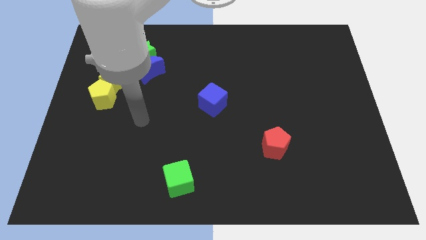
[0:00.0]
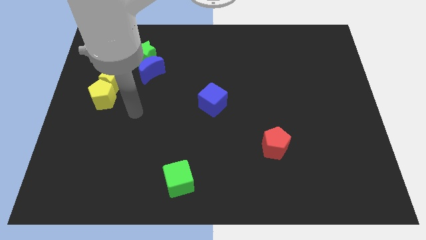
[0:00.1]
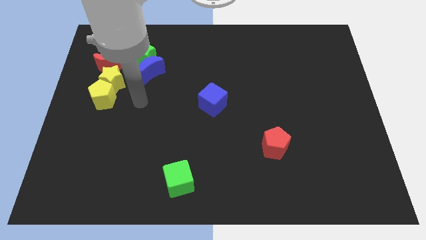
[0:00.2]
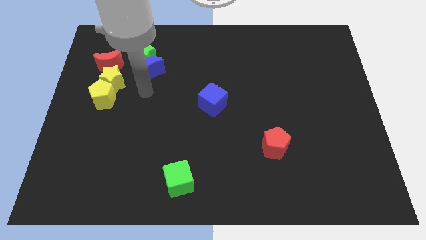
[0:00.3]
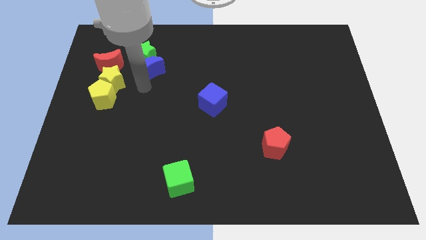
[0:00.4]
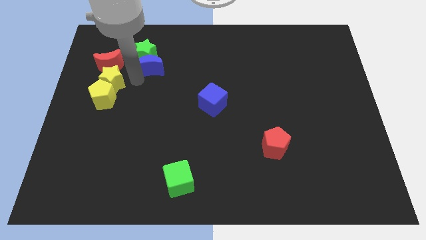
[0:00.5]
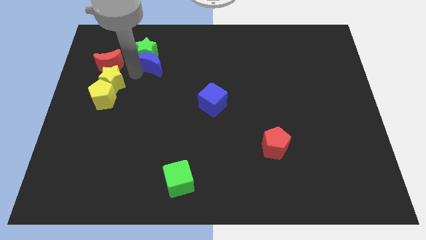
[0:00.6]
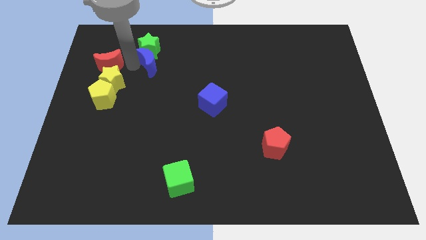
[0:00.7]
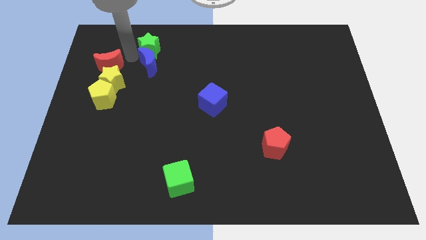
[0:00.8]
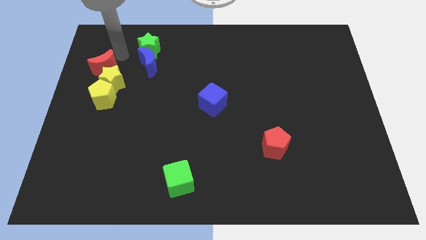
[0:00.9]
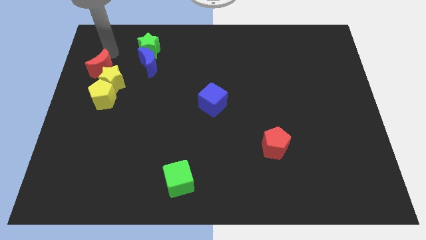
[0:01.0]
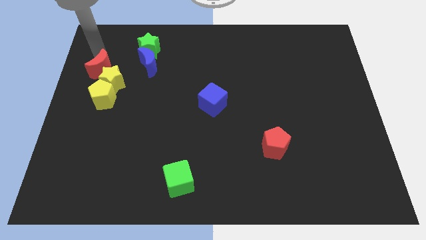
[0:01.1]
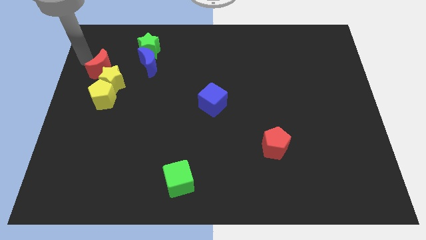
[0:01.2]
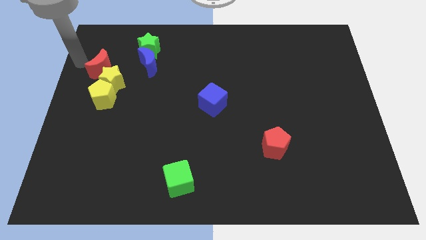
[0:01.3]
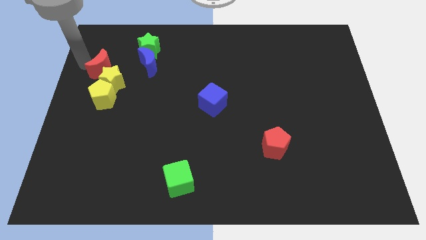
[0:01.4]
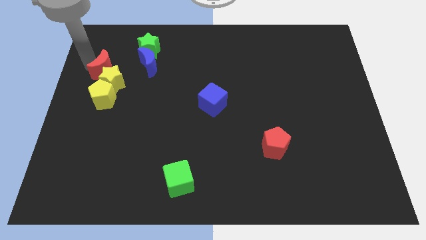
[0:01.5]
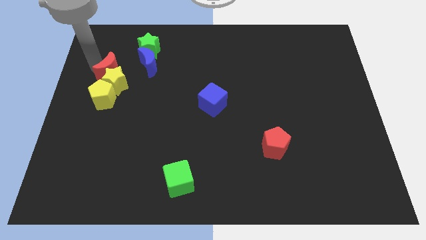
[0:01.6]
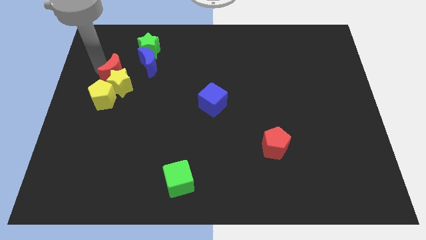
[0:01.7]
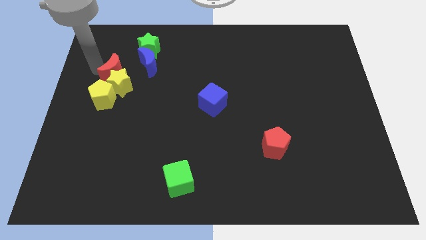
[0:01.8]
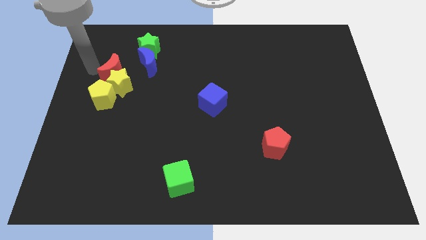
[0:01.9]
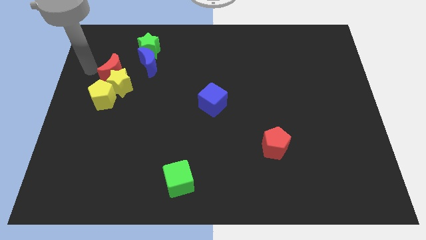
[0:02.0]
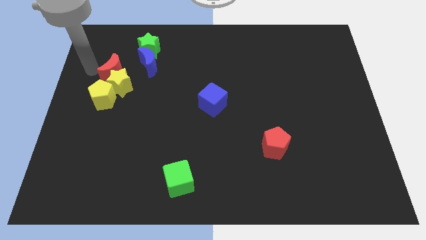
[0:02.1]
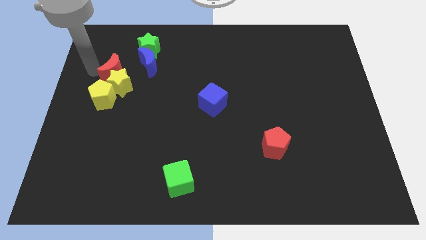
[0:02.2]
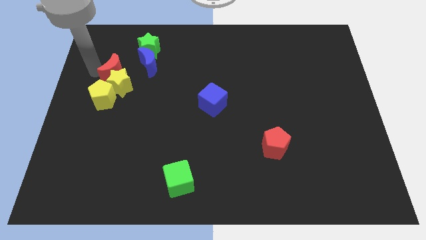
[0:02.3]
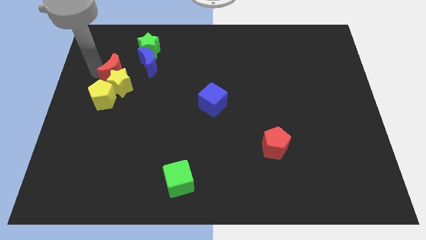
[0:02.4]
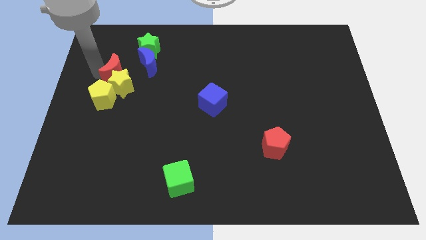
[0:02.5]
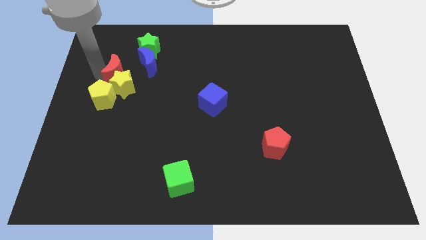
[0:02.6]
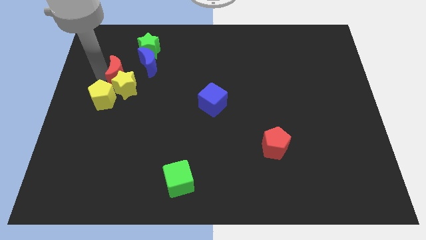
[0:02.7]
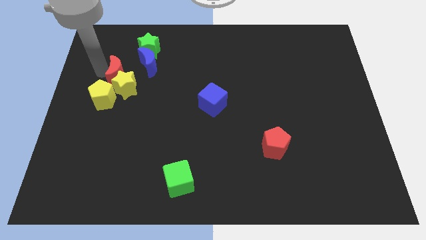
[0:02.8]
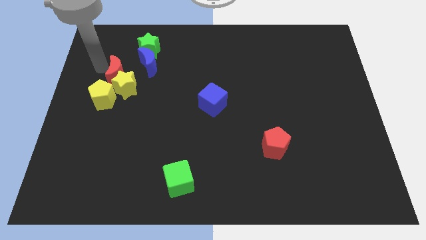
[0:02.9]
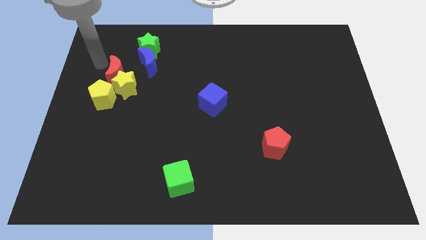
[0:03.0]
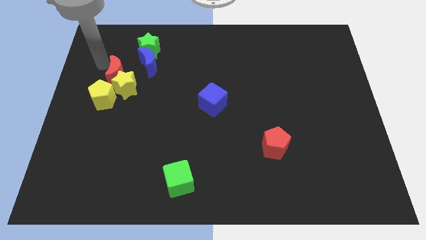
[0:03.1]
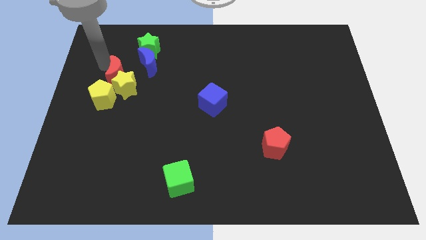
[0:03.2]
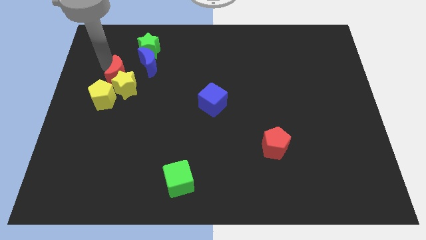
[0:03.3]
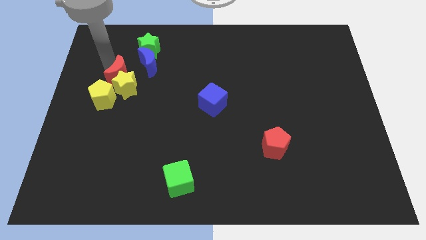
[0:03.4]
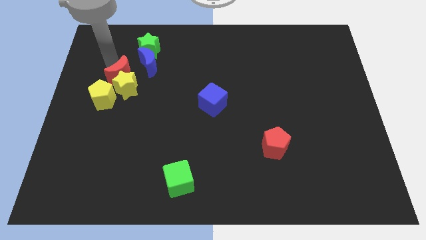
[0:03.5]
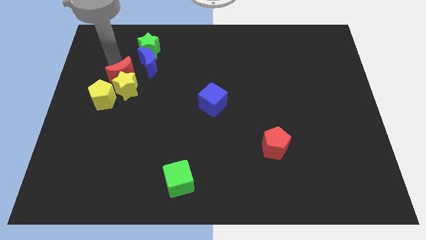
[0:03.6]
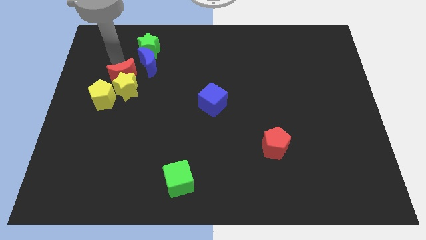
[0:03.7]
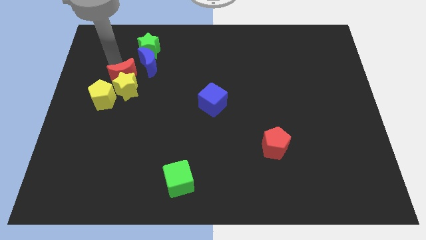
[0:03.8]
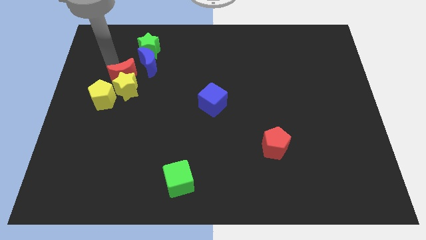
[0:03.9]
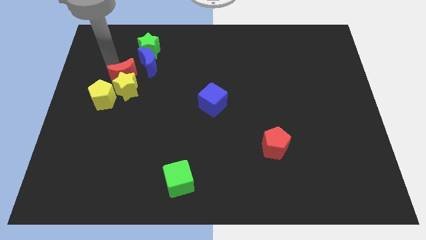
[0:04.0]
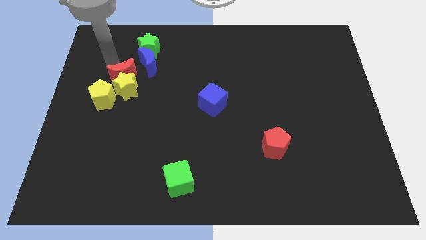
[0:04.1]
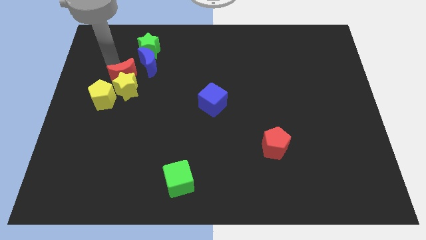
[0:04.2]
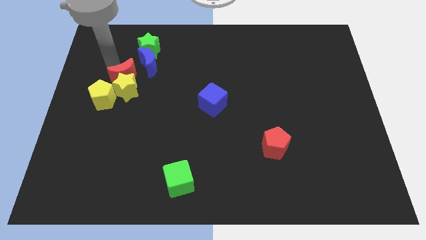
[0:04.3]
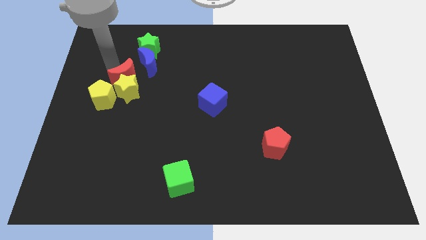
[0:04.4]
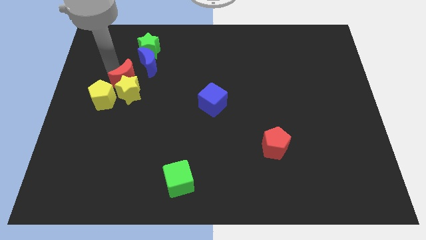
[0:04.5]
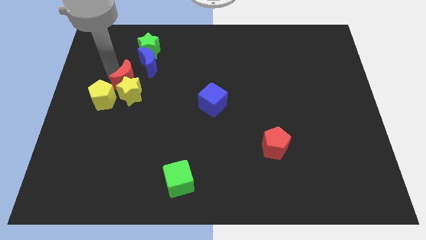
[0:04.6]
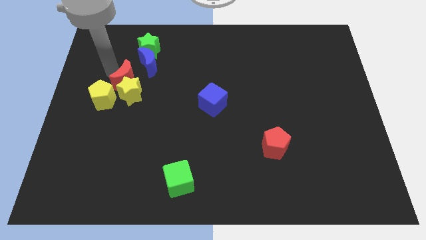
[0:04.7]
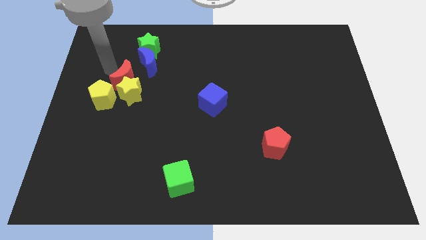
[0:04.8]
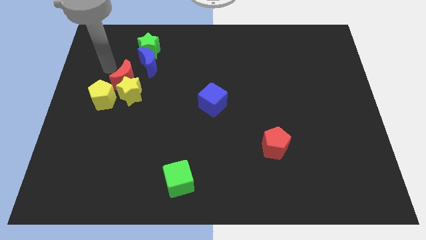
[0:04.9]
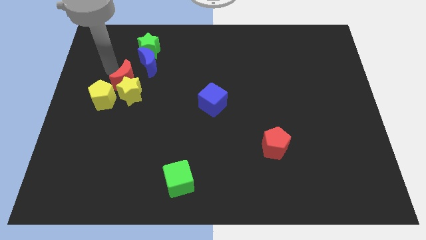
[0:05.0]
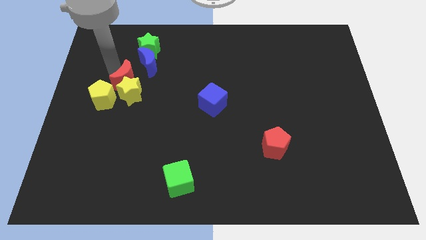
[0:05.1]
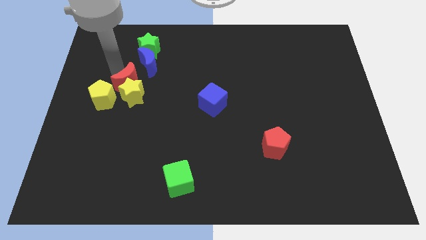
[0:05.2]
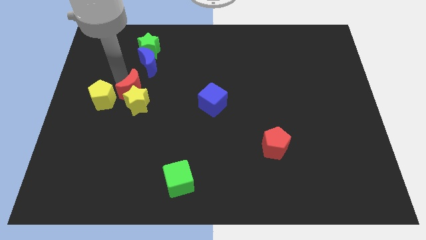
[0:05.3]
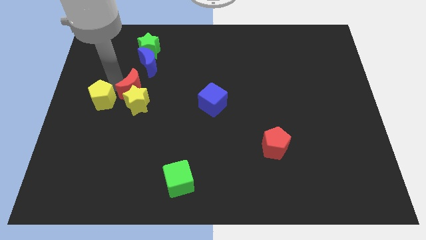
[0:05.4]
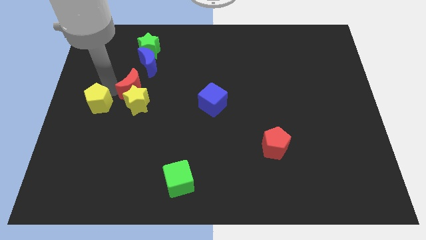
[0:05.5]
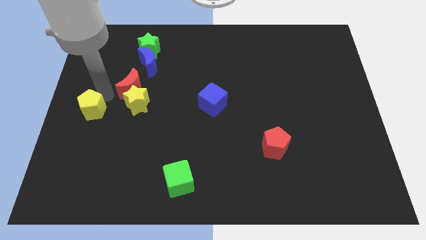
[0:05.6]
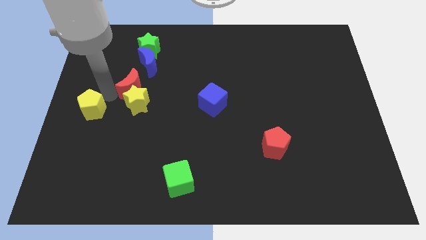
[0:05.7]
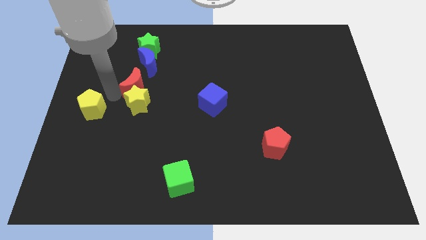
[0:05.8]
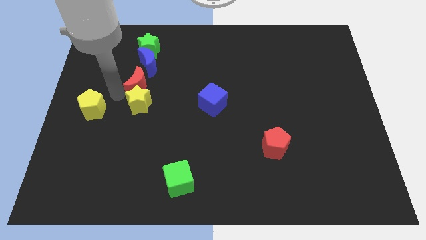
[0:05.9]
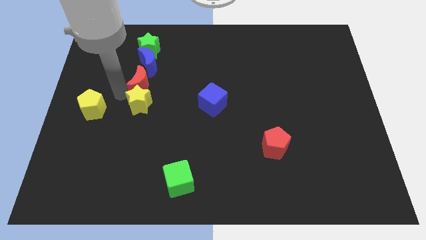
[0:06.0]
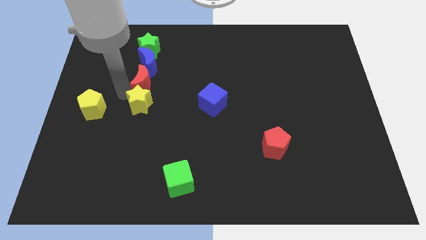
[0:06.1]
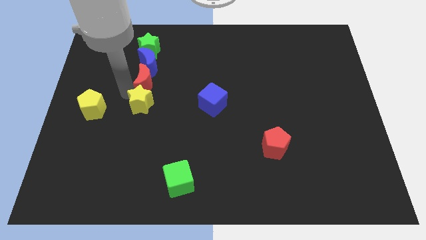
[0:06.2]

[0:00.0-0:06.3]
move the red moon to the bottom right of the blue moon

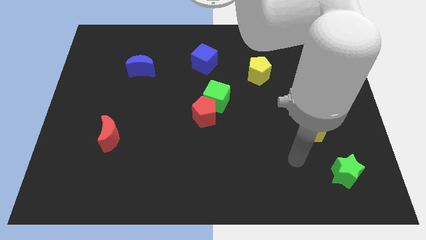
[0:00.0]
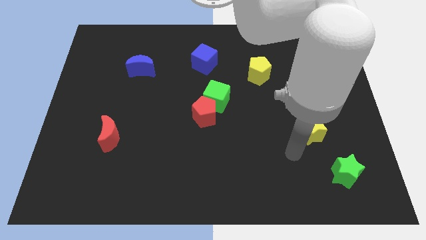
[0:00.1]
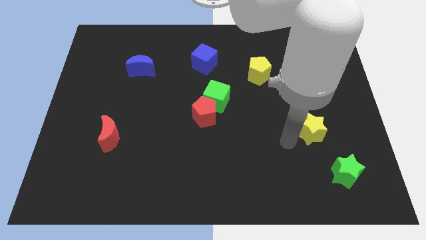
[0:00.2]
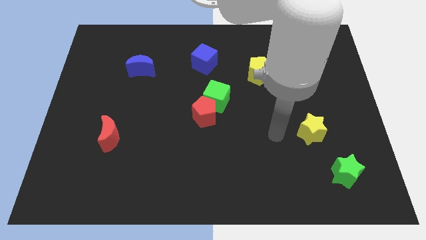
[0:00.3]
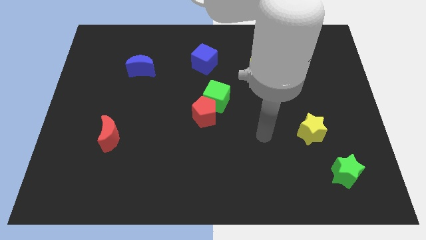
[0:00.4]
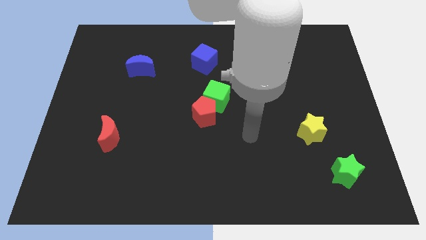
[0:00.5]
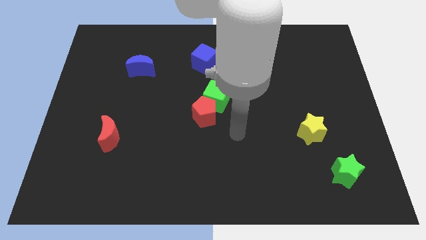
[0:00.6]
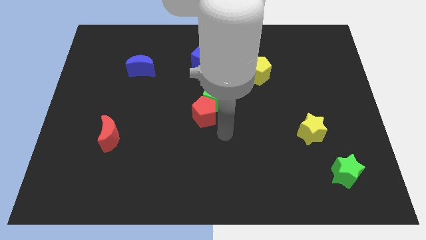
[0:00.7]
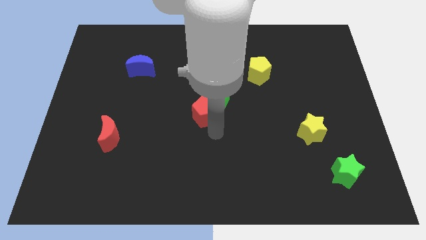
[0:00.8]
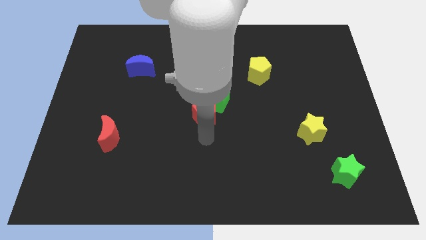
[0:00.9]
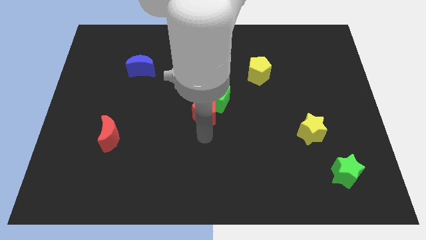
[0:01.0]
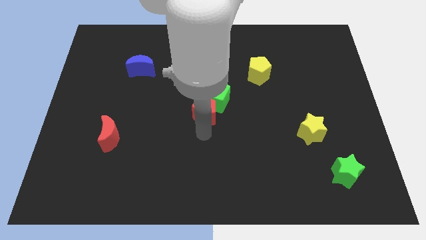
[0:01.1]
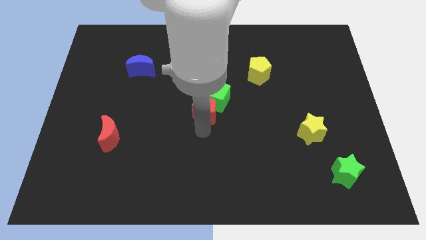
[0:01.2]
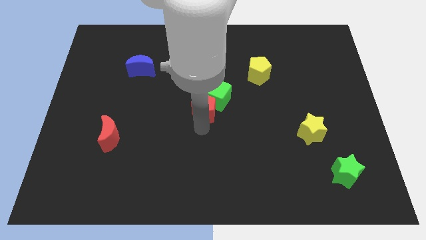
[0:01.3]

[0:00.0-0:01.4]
push the red pentagon below the blue cube
